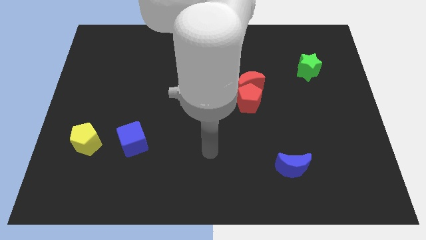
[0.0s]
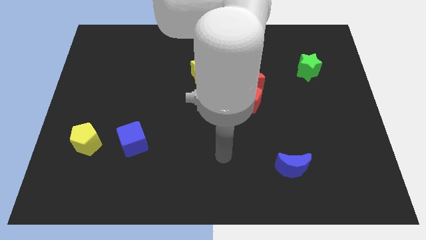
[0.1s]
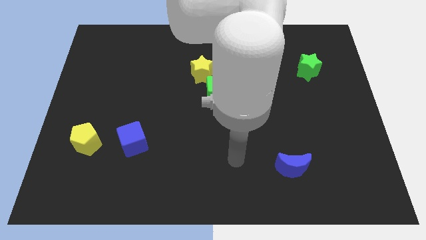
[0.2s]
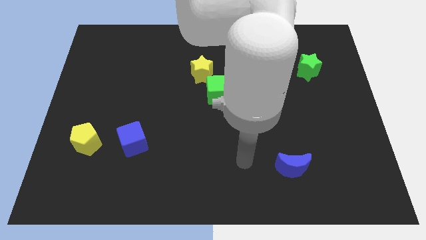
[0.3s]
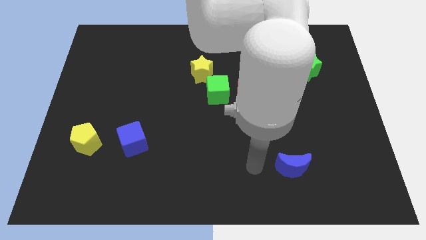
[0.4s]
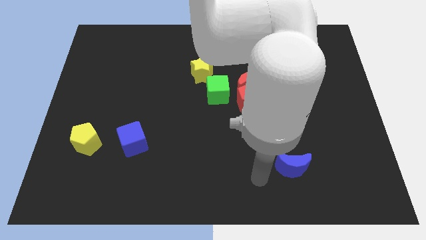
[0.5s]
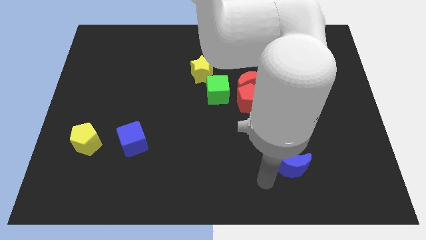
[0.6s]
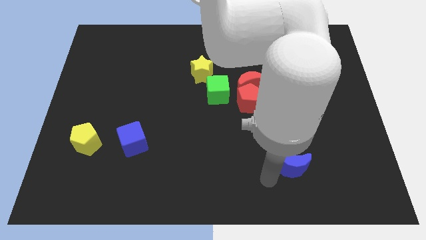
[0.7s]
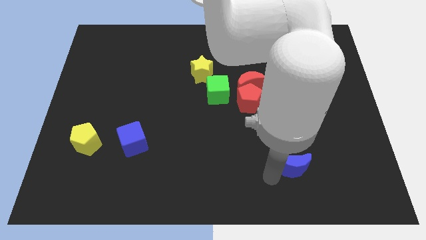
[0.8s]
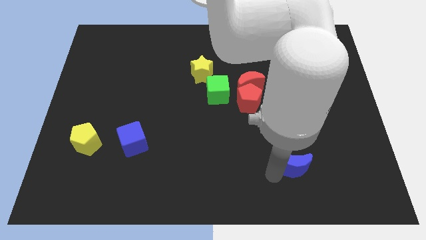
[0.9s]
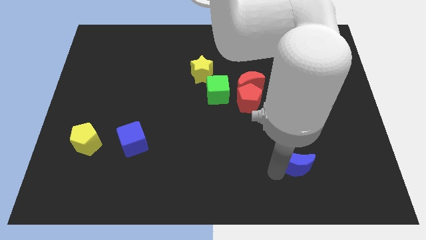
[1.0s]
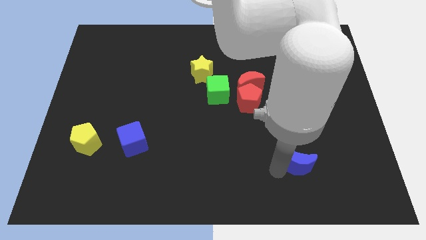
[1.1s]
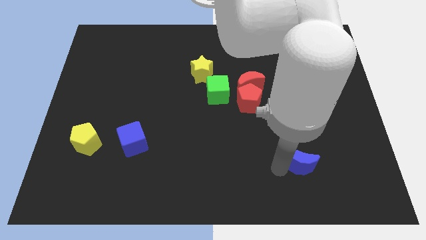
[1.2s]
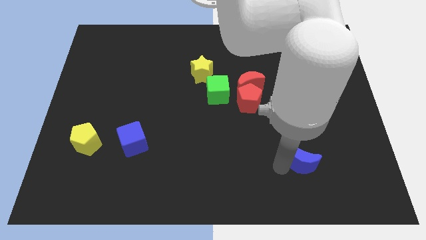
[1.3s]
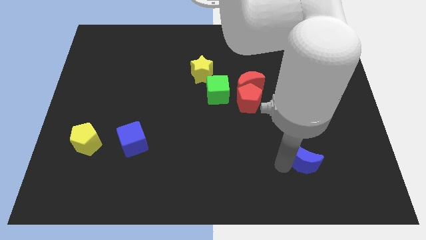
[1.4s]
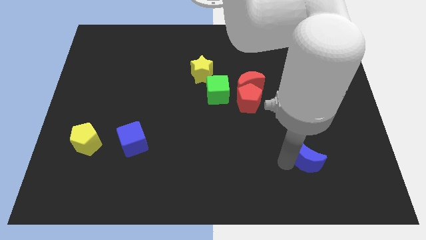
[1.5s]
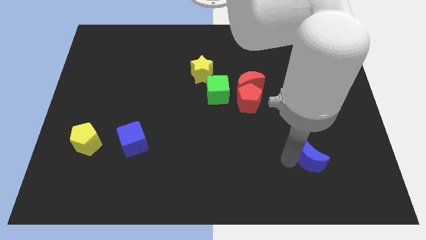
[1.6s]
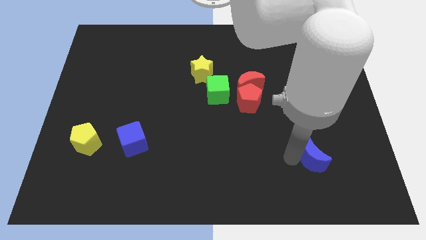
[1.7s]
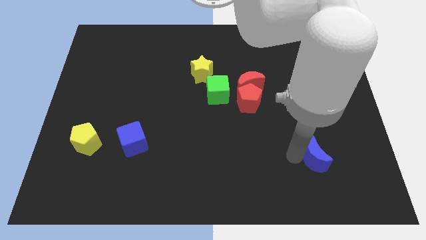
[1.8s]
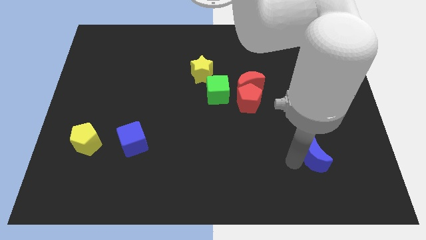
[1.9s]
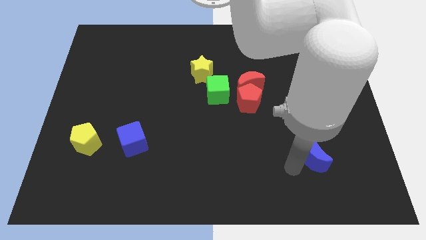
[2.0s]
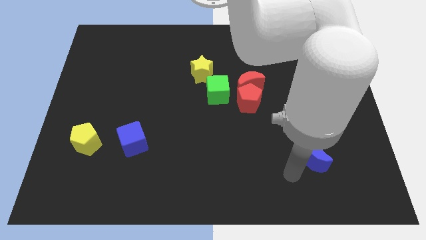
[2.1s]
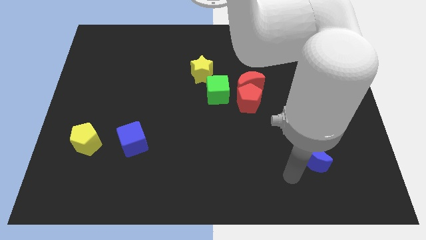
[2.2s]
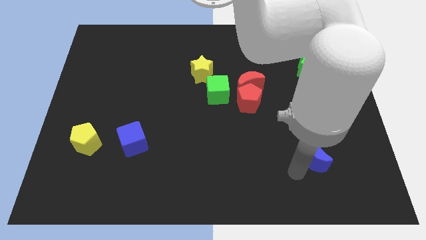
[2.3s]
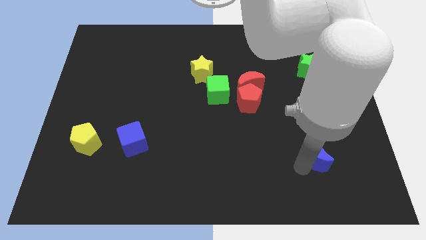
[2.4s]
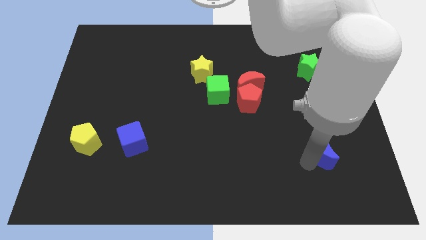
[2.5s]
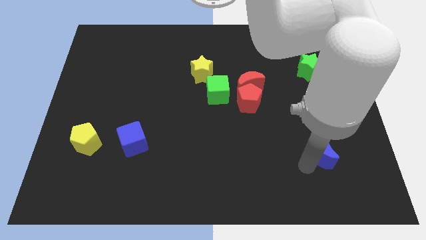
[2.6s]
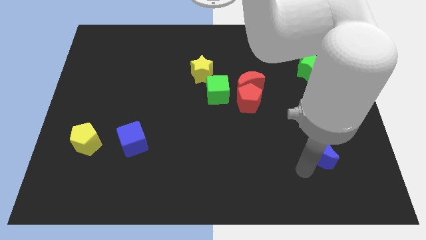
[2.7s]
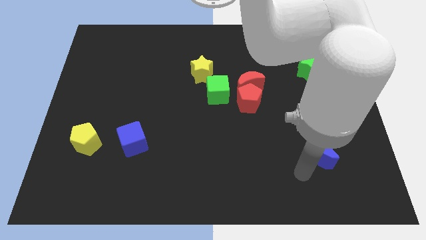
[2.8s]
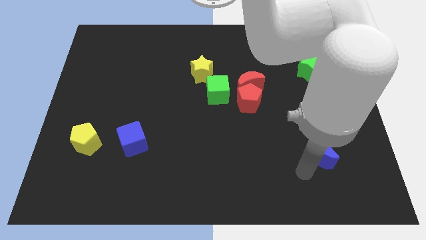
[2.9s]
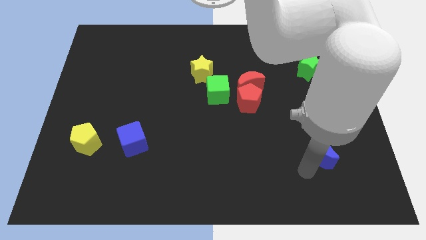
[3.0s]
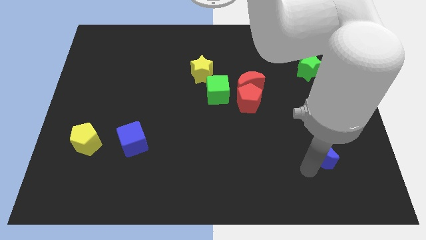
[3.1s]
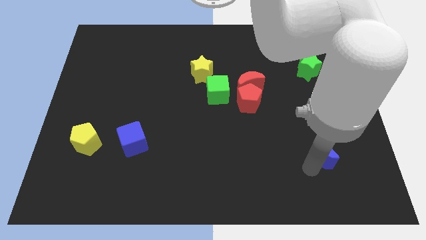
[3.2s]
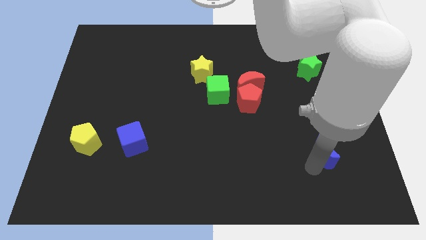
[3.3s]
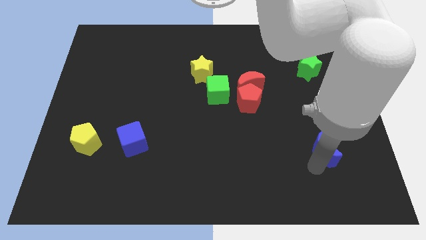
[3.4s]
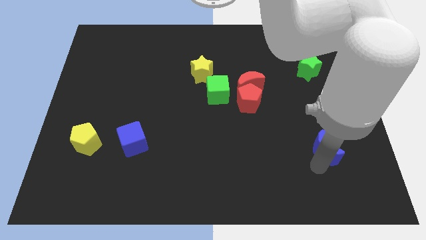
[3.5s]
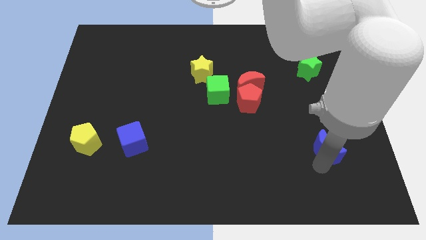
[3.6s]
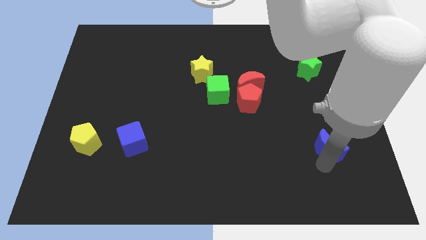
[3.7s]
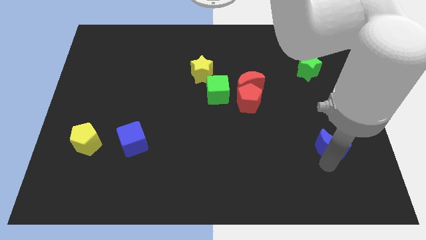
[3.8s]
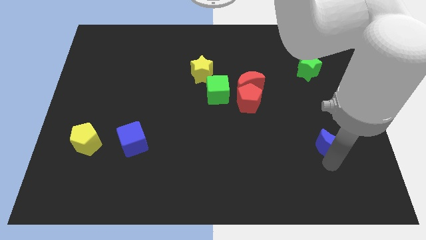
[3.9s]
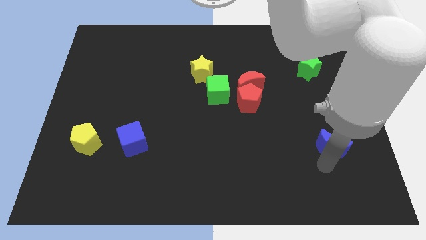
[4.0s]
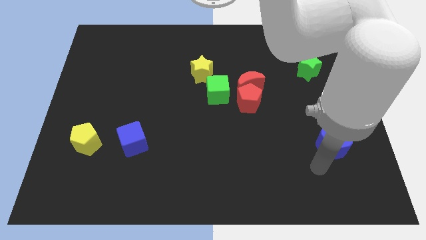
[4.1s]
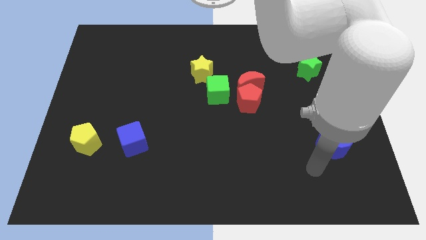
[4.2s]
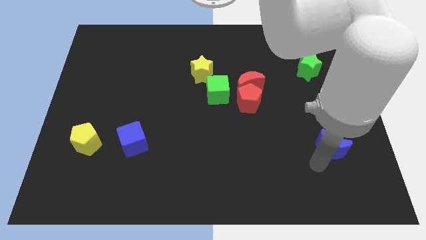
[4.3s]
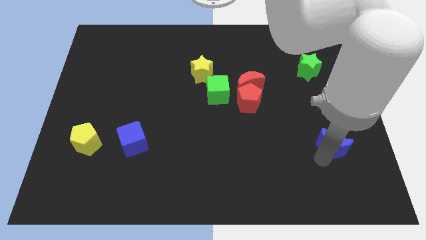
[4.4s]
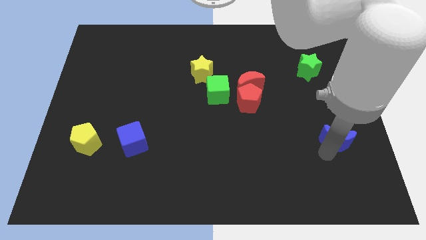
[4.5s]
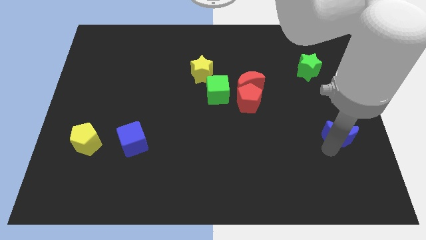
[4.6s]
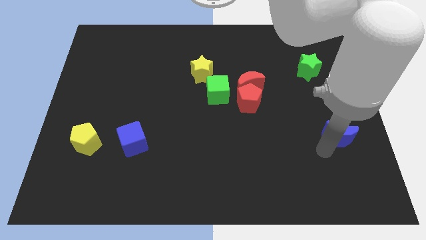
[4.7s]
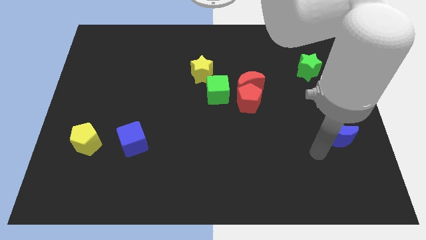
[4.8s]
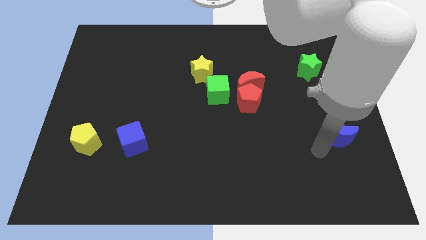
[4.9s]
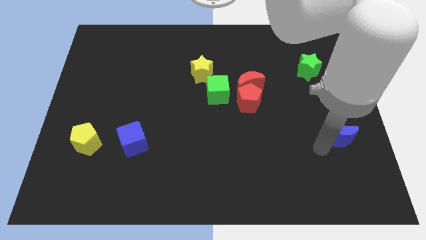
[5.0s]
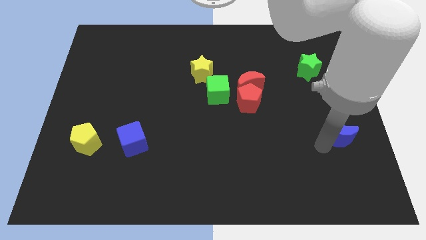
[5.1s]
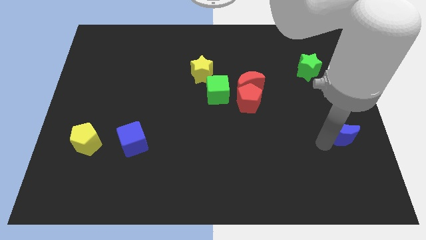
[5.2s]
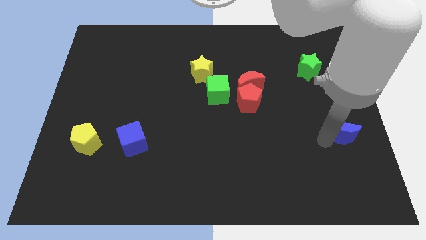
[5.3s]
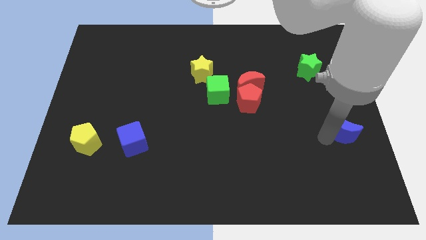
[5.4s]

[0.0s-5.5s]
move the blue moon to the right side

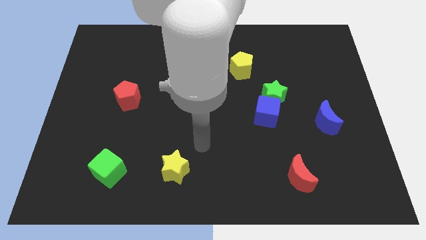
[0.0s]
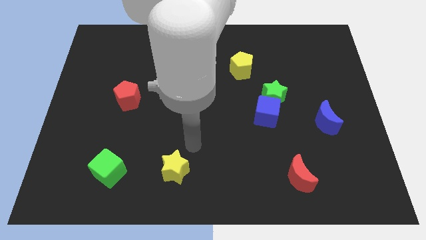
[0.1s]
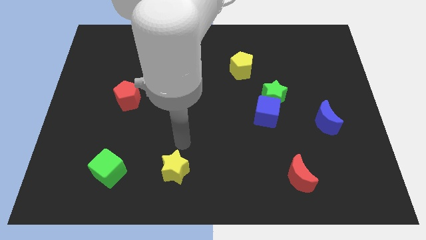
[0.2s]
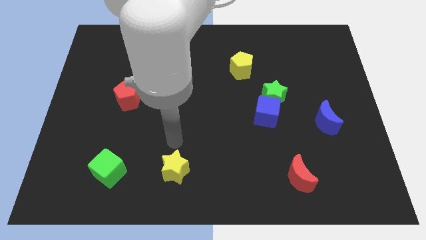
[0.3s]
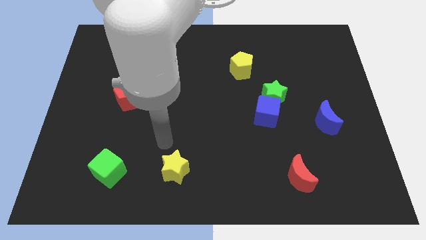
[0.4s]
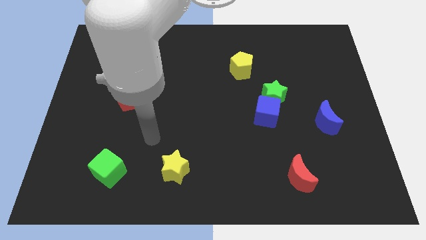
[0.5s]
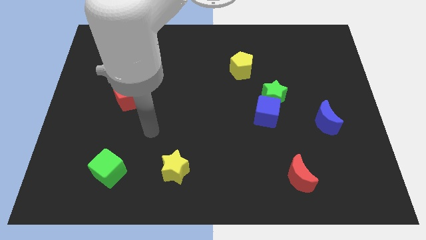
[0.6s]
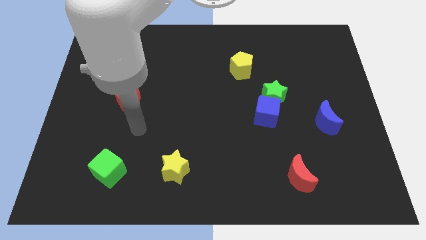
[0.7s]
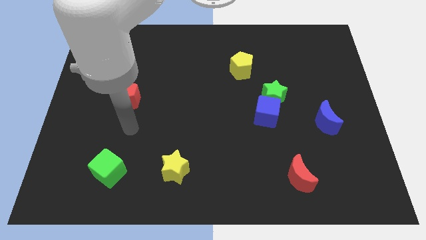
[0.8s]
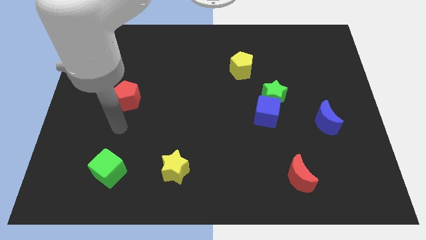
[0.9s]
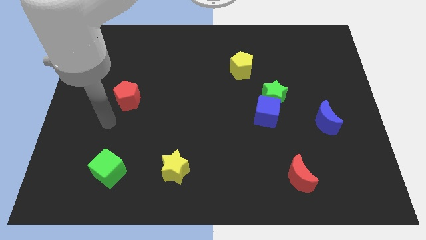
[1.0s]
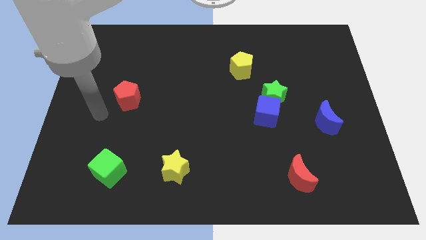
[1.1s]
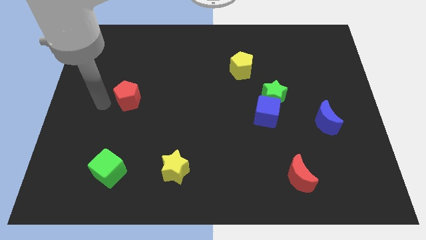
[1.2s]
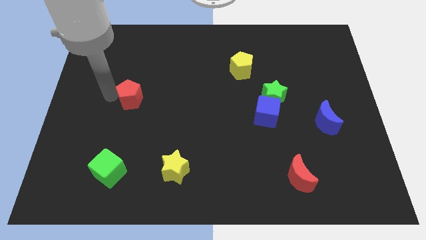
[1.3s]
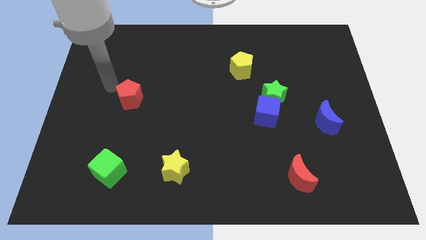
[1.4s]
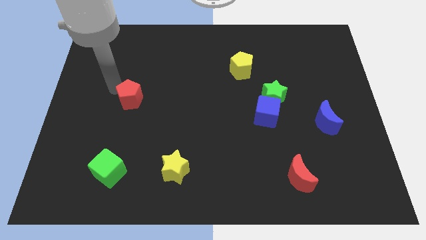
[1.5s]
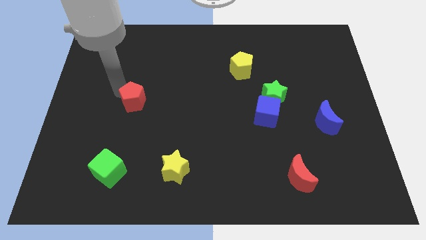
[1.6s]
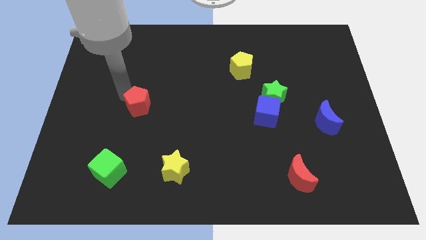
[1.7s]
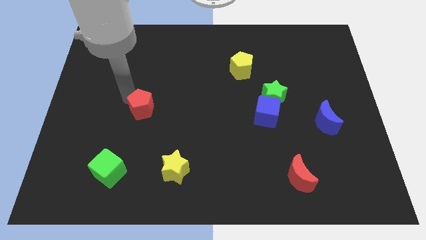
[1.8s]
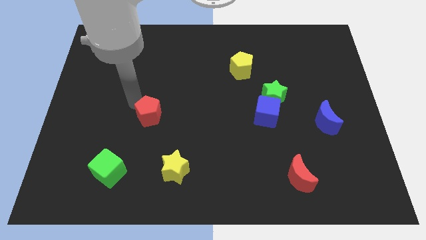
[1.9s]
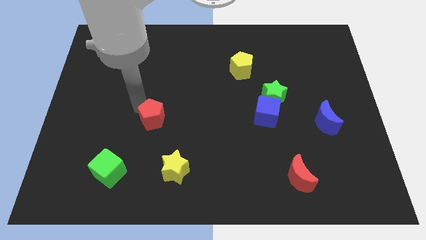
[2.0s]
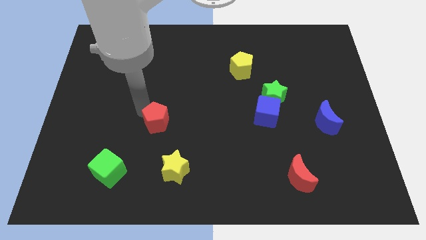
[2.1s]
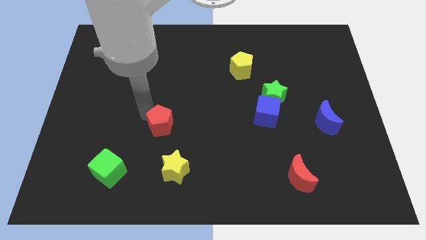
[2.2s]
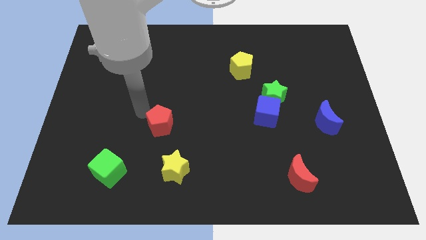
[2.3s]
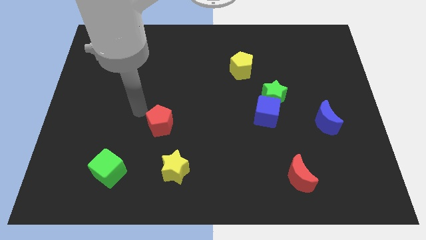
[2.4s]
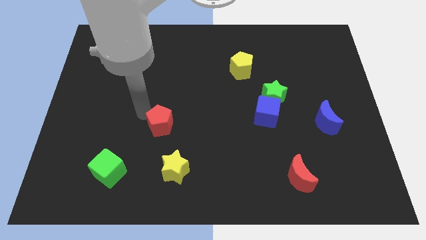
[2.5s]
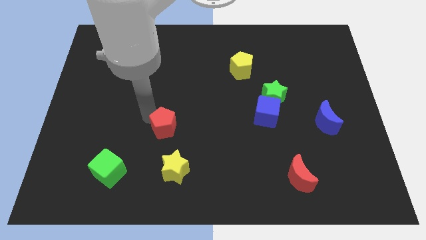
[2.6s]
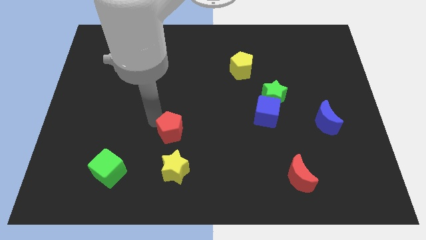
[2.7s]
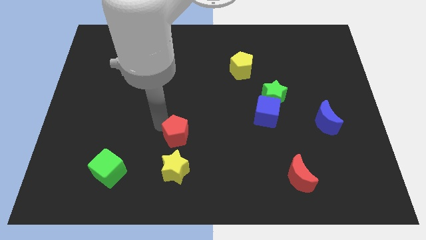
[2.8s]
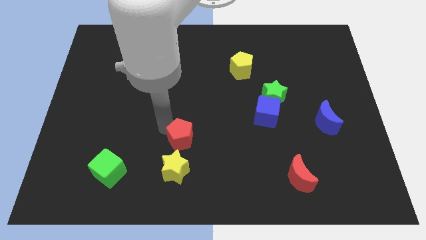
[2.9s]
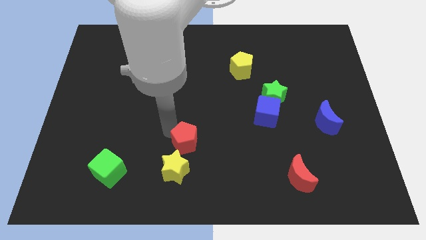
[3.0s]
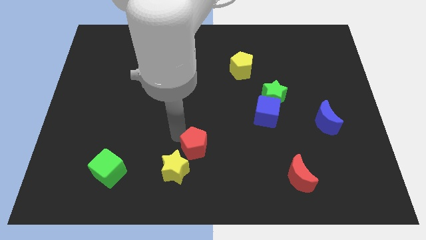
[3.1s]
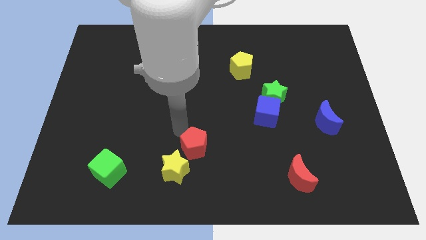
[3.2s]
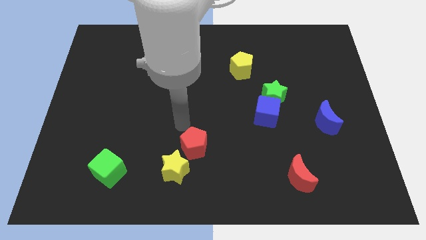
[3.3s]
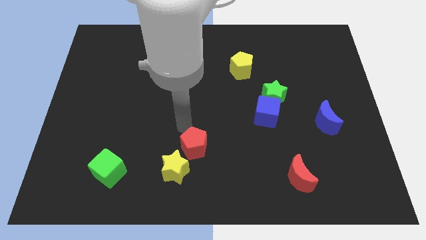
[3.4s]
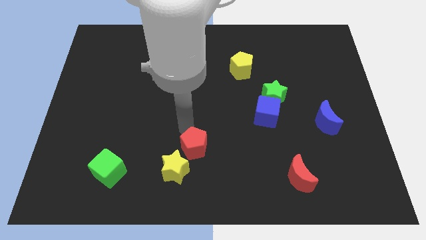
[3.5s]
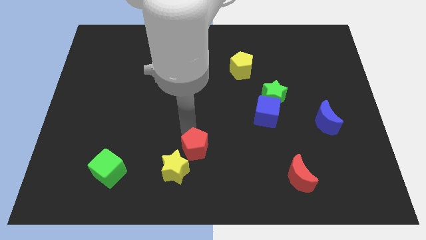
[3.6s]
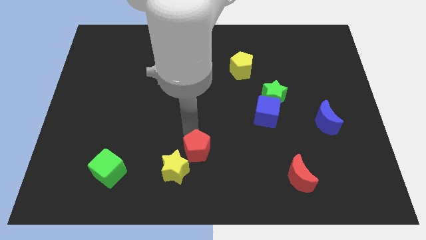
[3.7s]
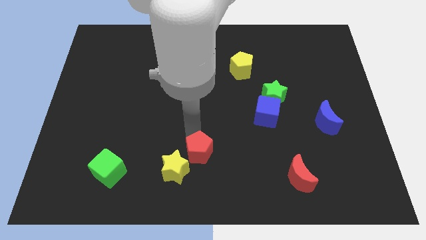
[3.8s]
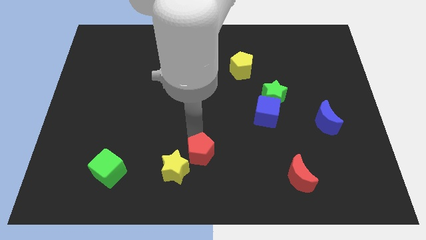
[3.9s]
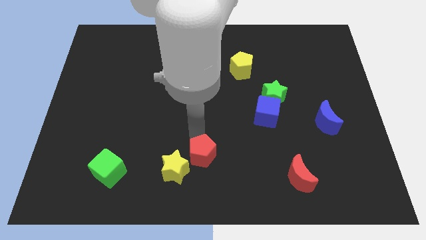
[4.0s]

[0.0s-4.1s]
slide the red pentagon to the bottom
